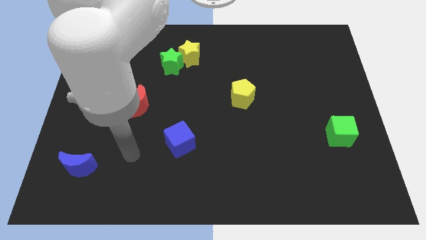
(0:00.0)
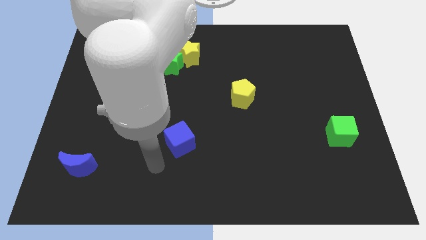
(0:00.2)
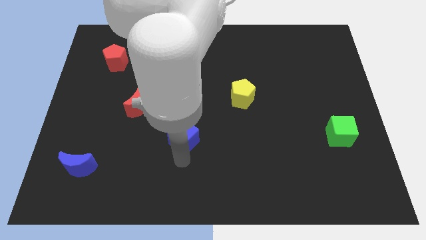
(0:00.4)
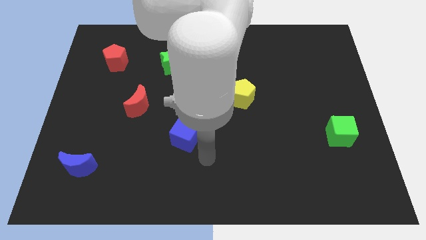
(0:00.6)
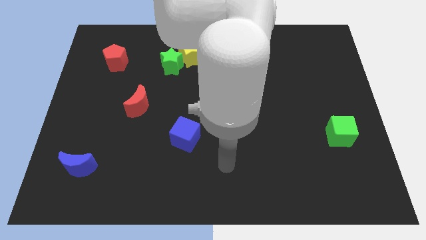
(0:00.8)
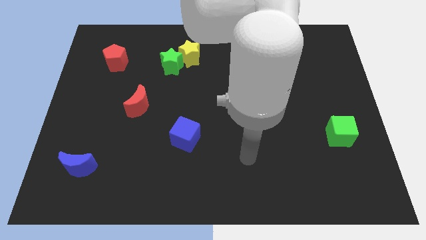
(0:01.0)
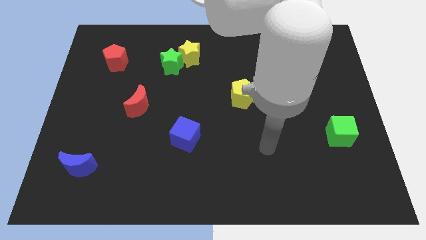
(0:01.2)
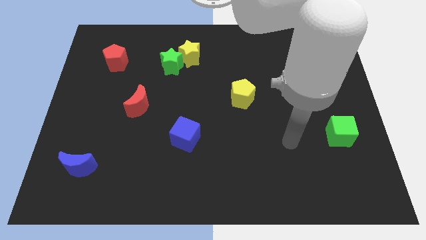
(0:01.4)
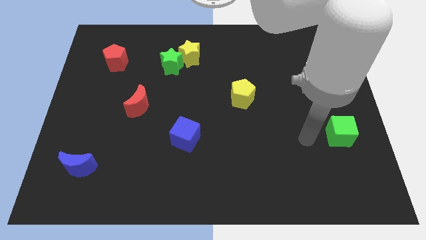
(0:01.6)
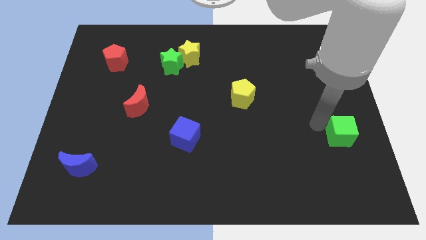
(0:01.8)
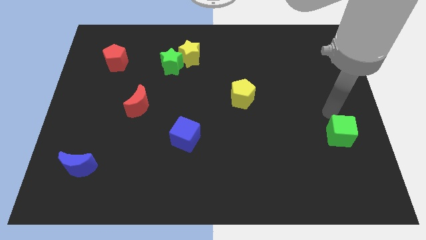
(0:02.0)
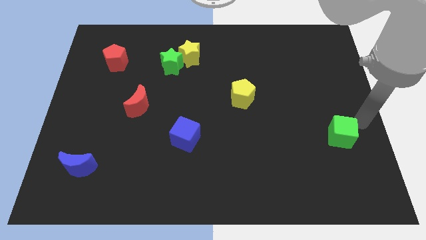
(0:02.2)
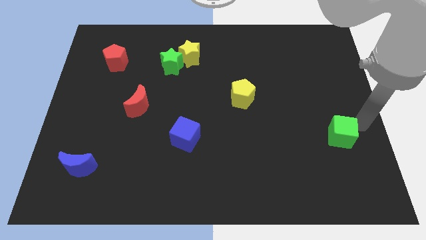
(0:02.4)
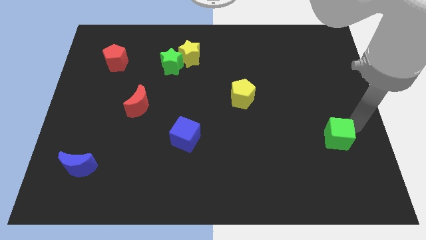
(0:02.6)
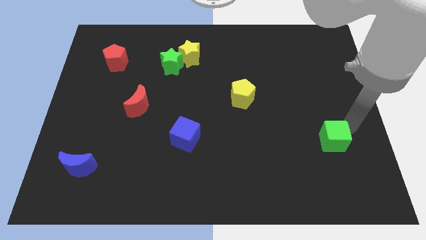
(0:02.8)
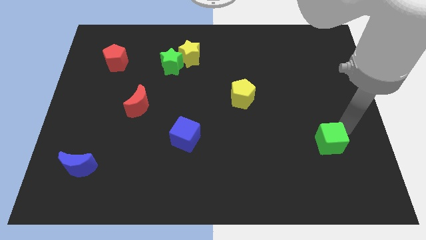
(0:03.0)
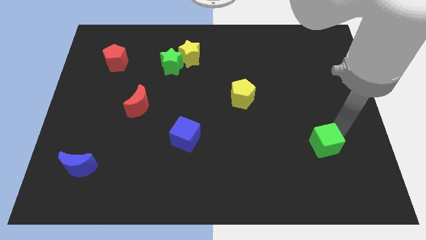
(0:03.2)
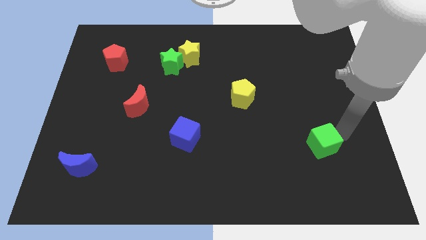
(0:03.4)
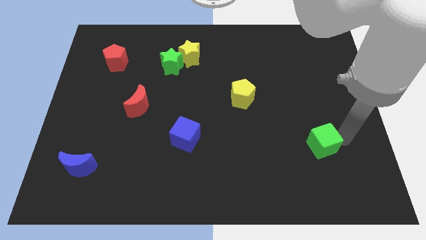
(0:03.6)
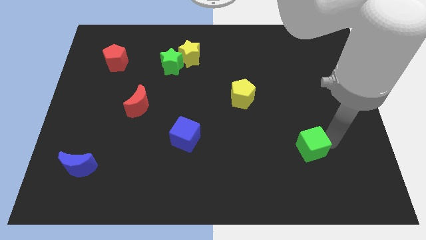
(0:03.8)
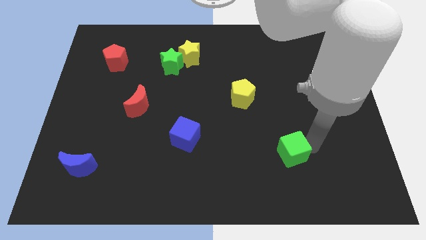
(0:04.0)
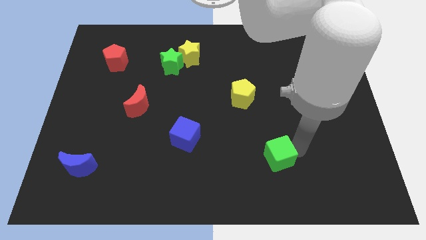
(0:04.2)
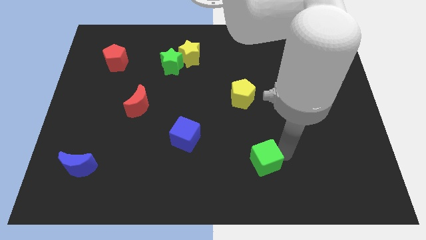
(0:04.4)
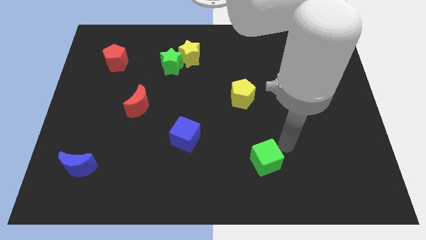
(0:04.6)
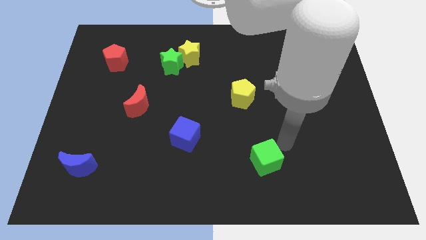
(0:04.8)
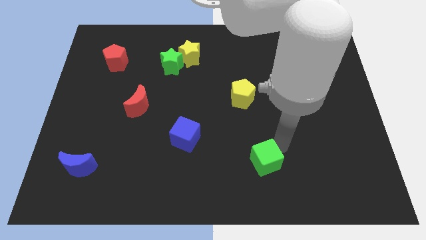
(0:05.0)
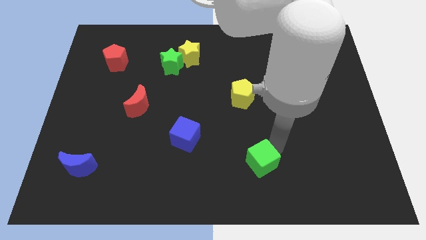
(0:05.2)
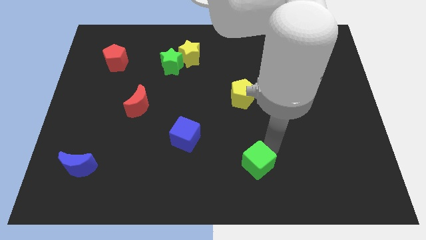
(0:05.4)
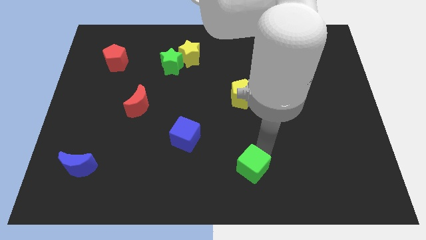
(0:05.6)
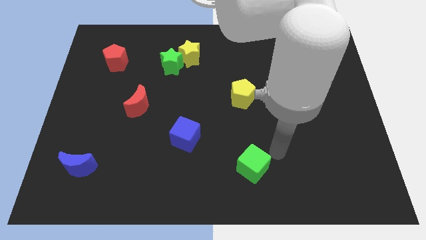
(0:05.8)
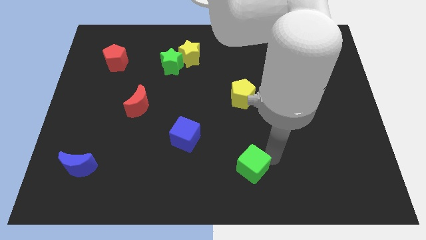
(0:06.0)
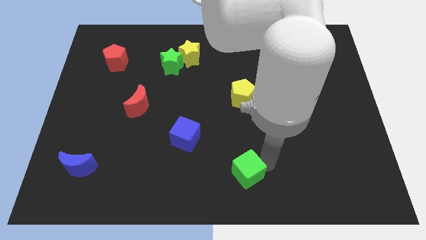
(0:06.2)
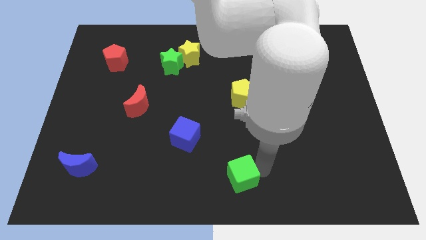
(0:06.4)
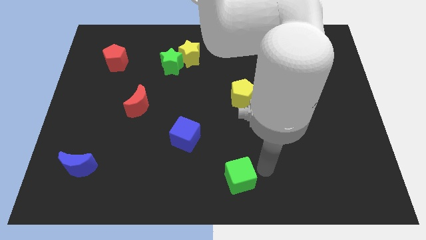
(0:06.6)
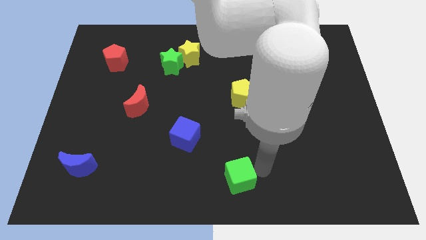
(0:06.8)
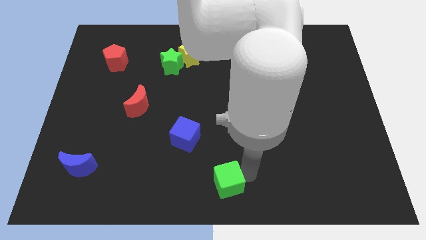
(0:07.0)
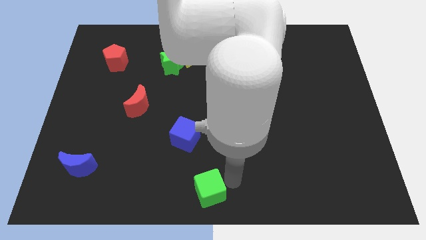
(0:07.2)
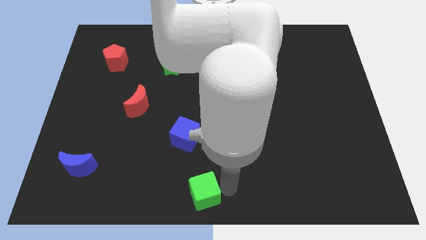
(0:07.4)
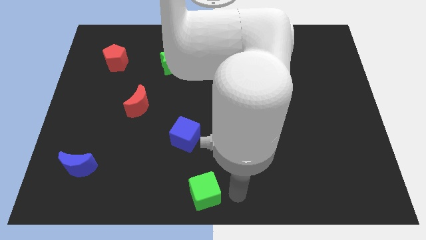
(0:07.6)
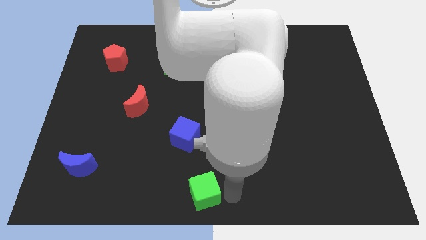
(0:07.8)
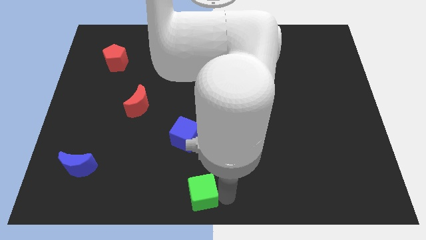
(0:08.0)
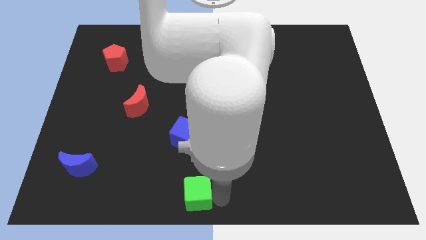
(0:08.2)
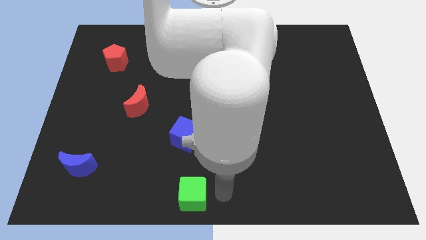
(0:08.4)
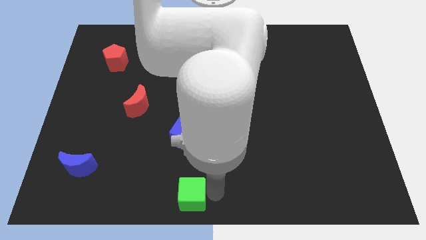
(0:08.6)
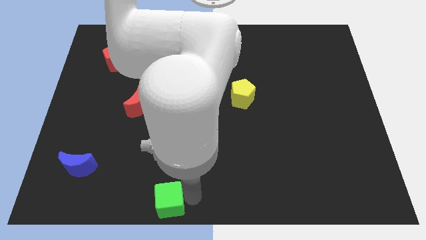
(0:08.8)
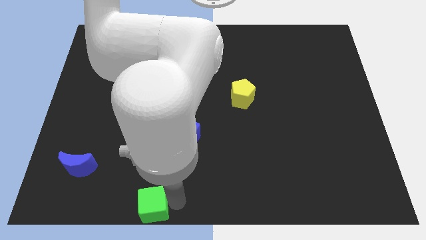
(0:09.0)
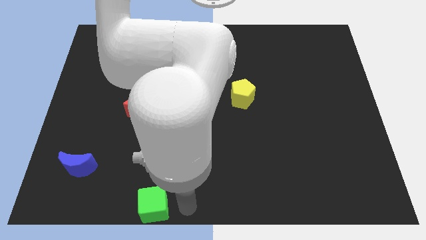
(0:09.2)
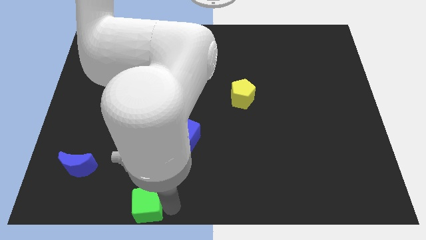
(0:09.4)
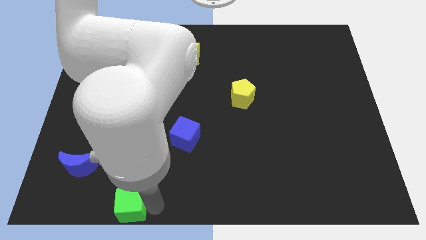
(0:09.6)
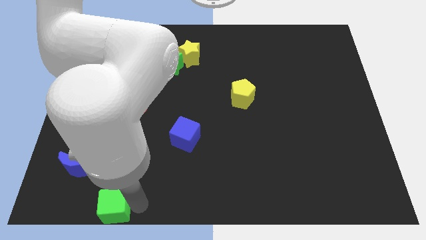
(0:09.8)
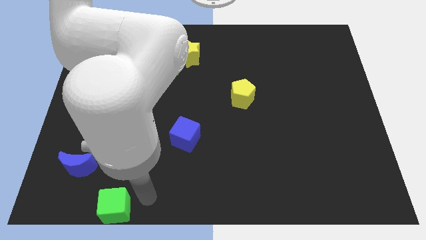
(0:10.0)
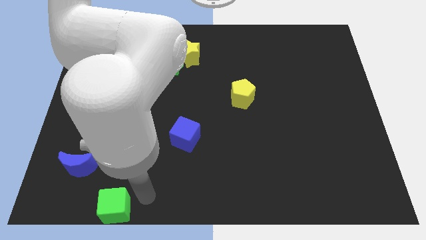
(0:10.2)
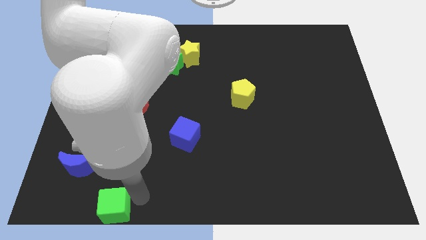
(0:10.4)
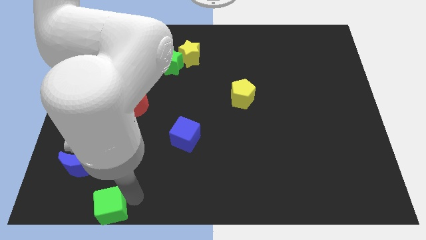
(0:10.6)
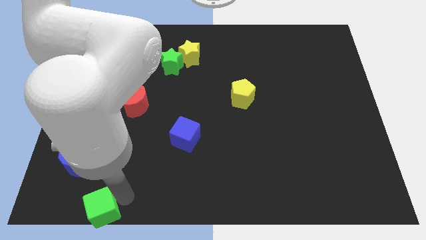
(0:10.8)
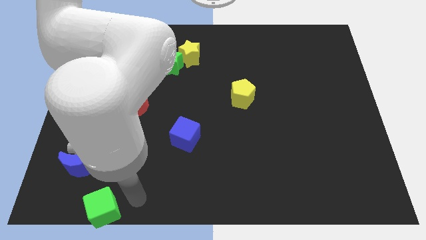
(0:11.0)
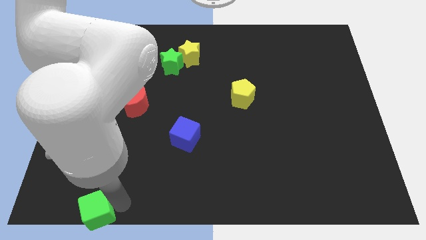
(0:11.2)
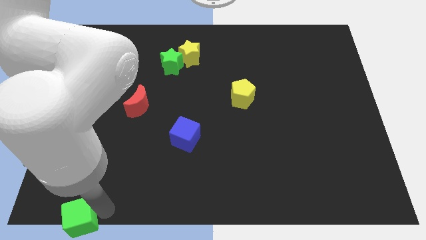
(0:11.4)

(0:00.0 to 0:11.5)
push the green cube to the bottom left

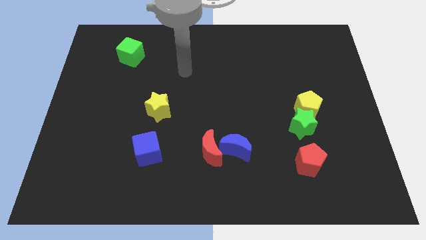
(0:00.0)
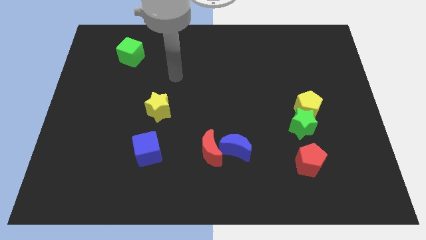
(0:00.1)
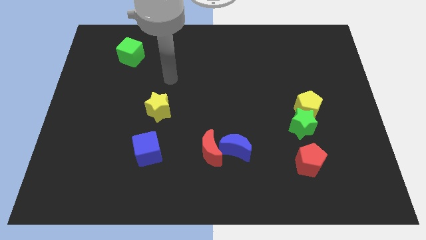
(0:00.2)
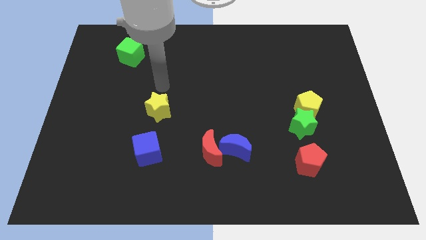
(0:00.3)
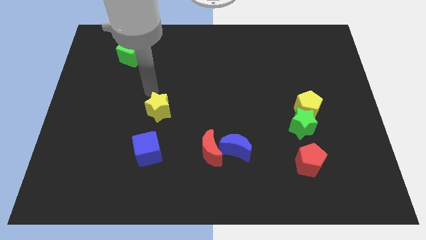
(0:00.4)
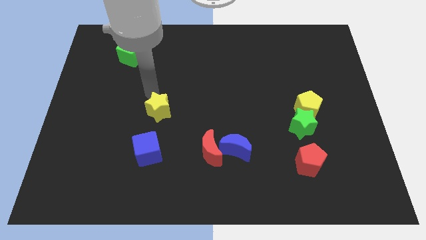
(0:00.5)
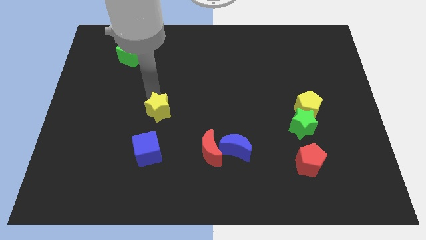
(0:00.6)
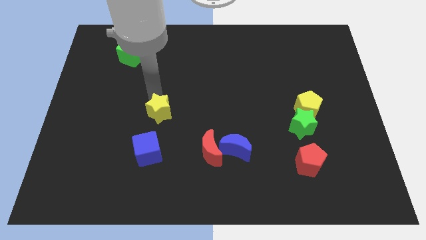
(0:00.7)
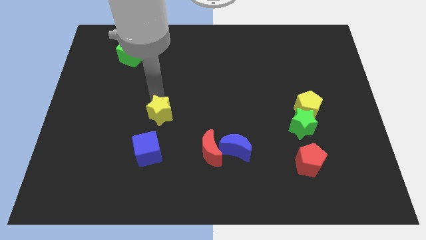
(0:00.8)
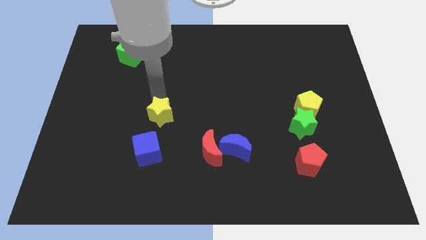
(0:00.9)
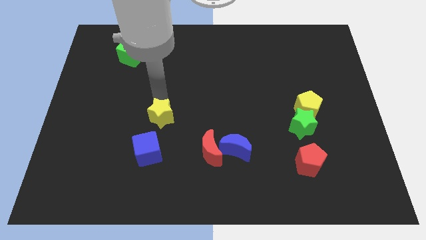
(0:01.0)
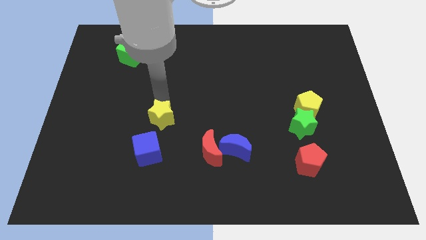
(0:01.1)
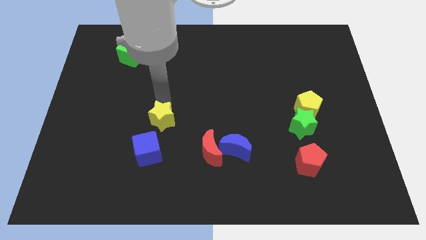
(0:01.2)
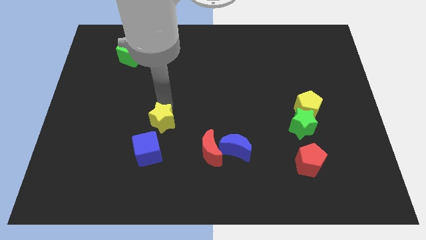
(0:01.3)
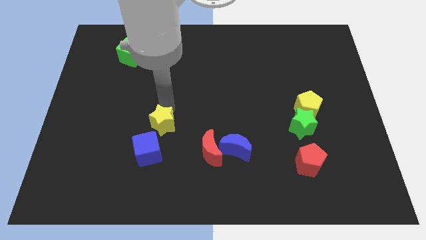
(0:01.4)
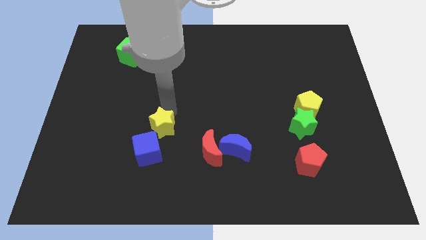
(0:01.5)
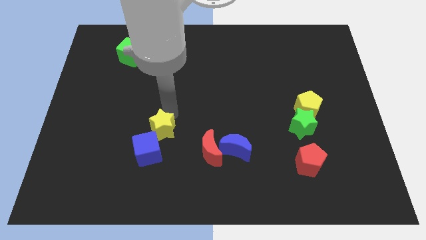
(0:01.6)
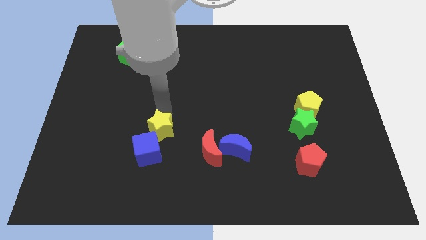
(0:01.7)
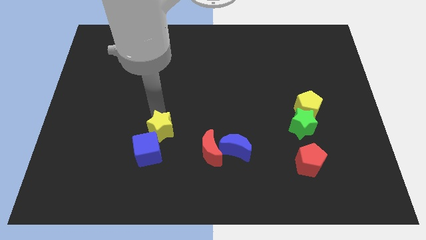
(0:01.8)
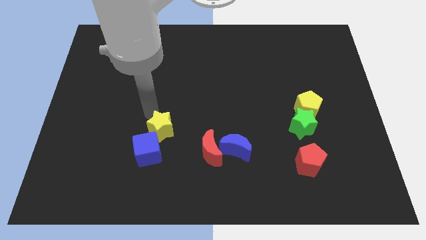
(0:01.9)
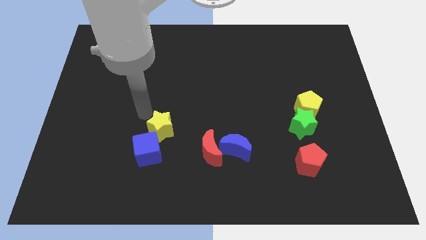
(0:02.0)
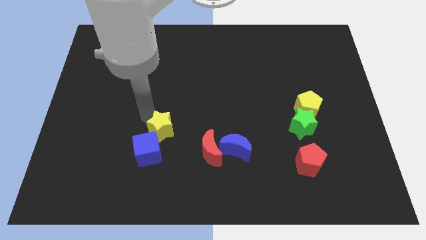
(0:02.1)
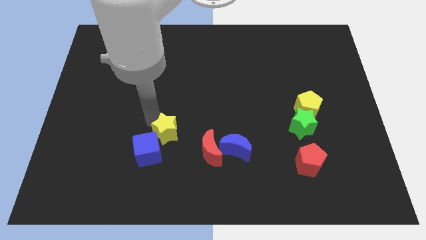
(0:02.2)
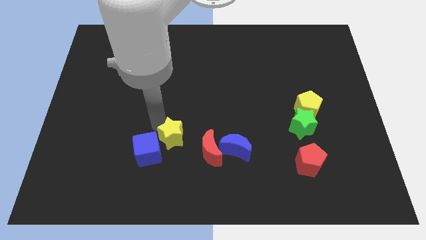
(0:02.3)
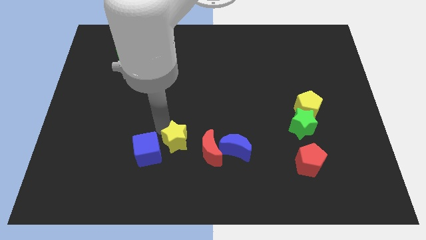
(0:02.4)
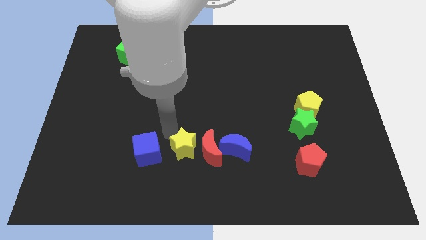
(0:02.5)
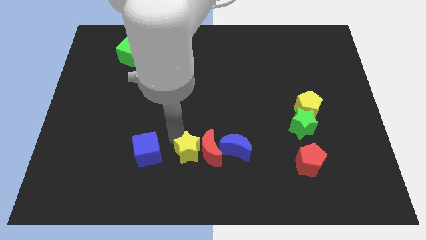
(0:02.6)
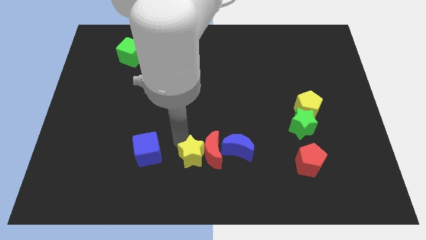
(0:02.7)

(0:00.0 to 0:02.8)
put the yellow star to the bottom
